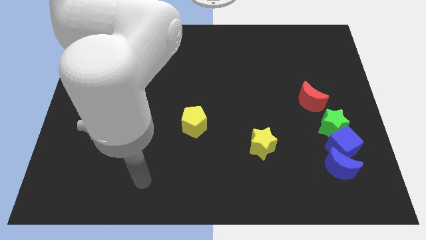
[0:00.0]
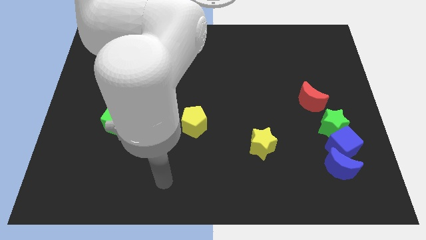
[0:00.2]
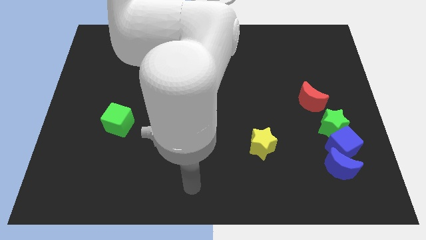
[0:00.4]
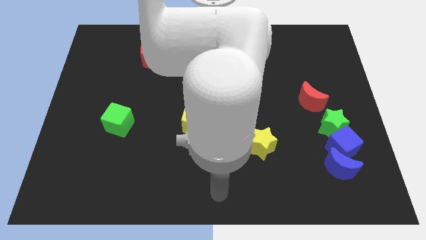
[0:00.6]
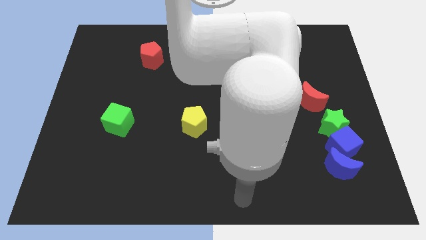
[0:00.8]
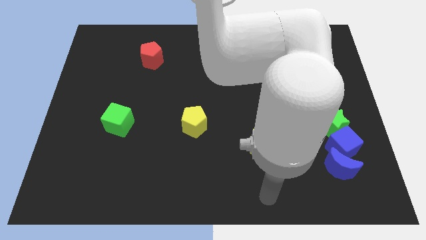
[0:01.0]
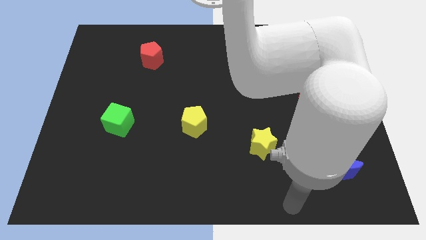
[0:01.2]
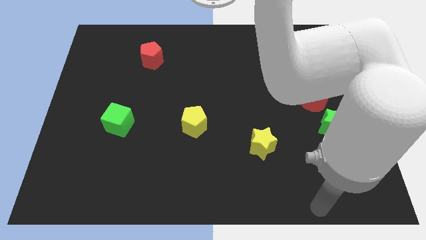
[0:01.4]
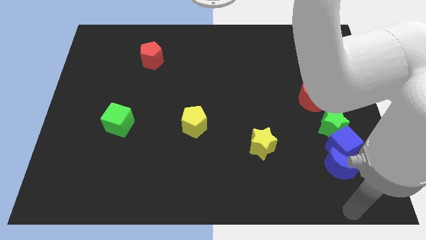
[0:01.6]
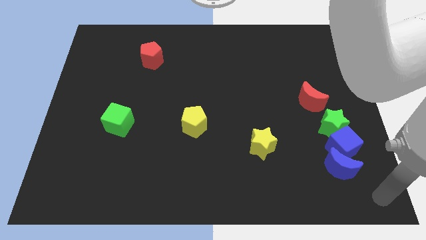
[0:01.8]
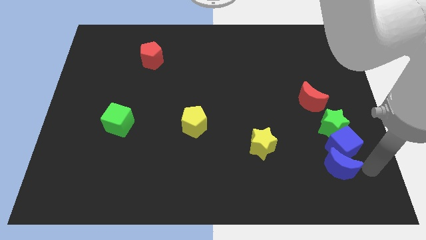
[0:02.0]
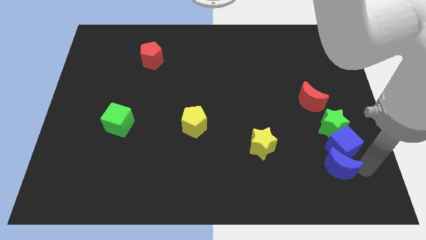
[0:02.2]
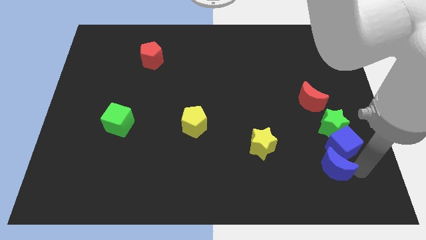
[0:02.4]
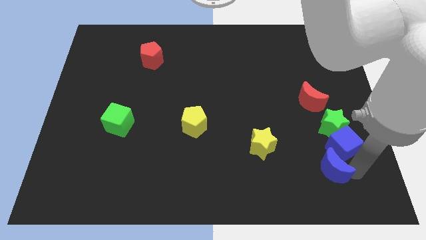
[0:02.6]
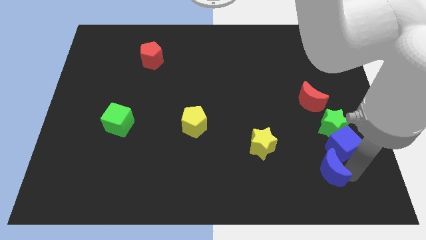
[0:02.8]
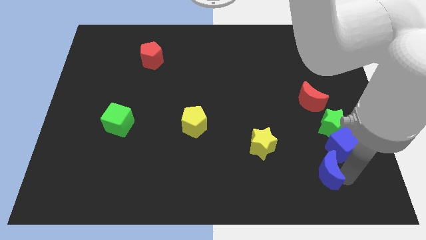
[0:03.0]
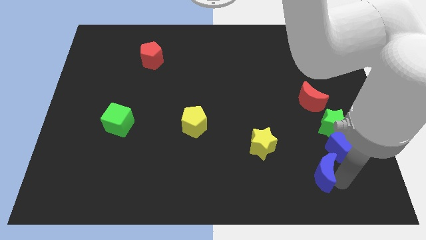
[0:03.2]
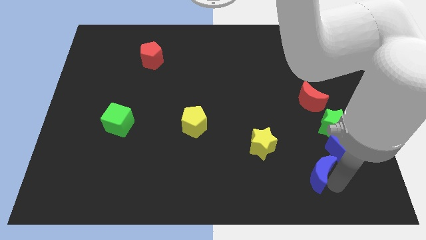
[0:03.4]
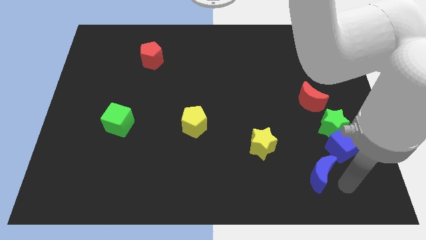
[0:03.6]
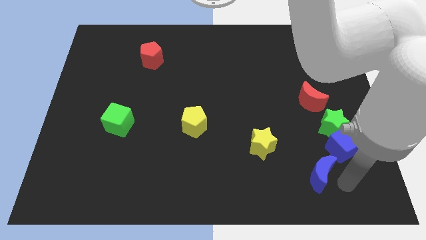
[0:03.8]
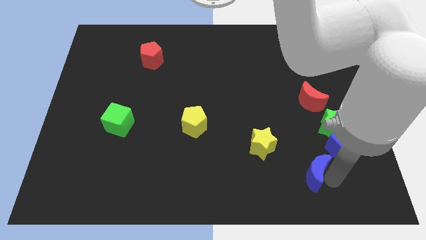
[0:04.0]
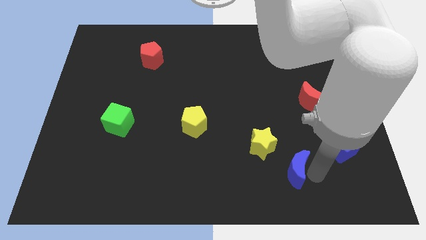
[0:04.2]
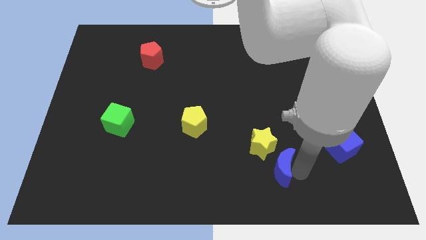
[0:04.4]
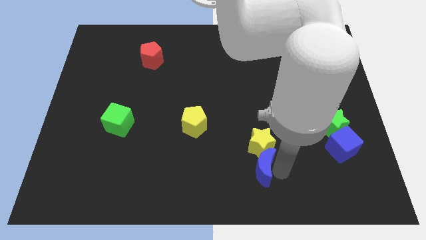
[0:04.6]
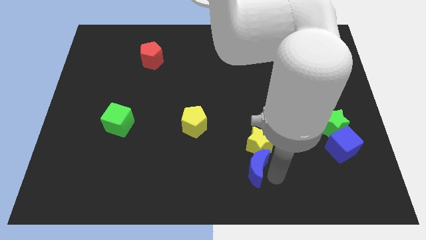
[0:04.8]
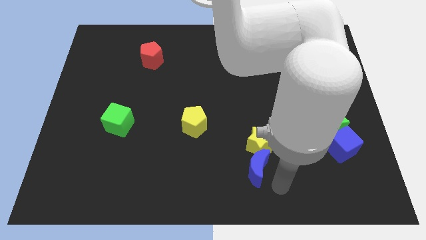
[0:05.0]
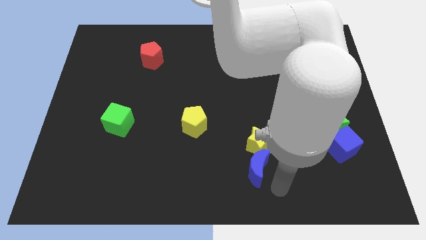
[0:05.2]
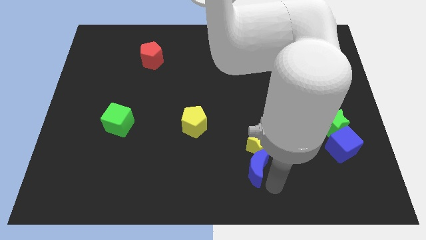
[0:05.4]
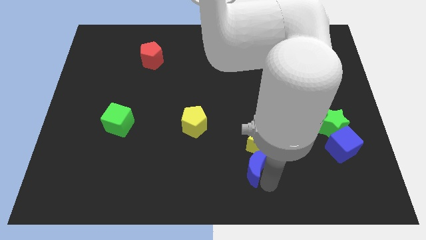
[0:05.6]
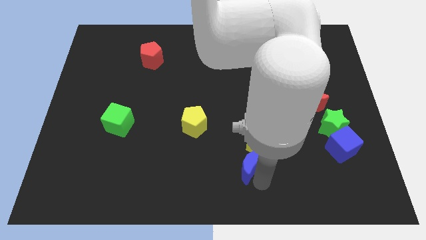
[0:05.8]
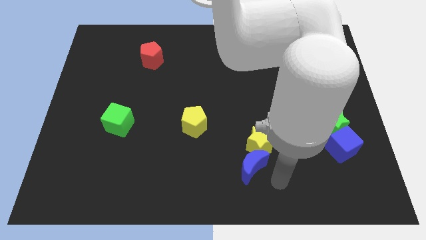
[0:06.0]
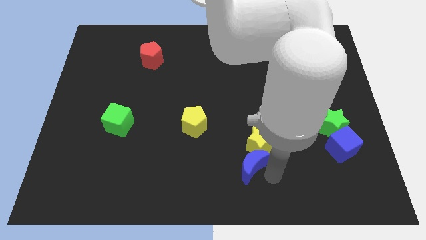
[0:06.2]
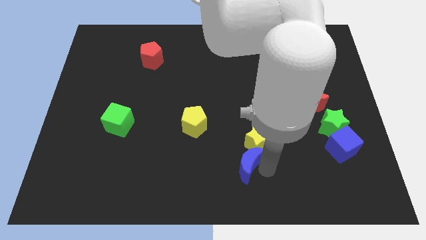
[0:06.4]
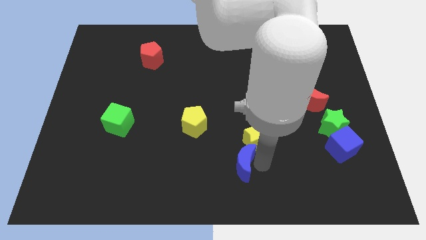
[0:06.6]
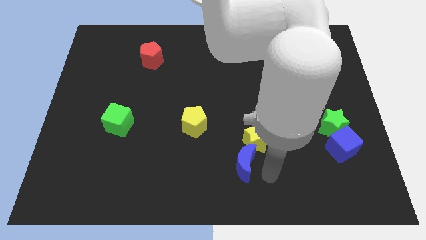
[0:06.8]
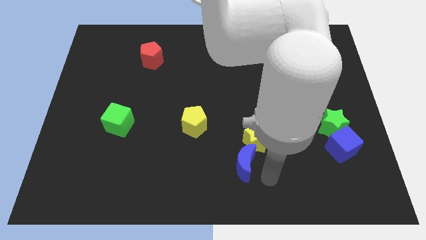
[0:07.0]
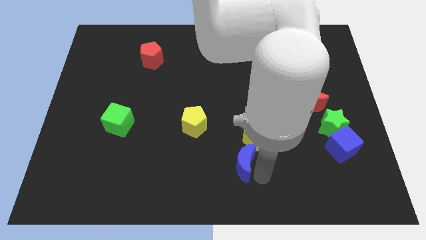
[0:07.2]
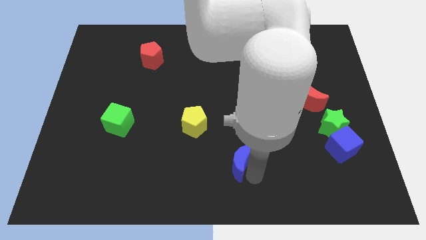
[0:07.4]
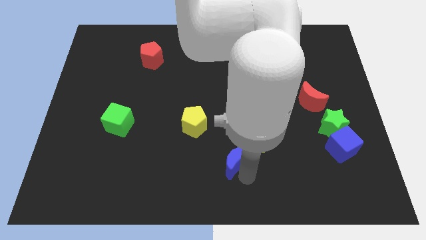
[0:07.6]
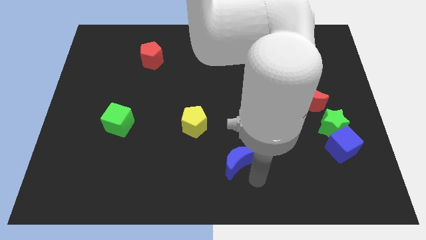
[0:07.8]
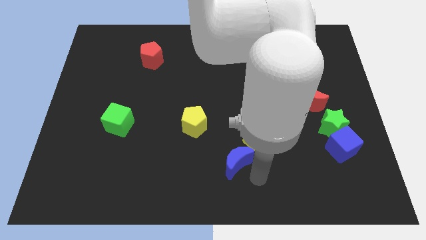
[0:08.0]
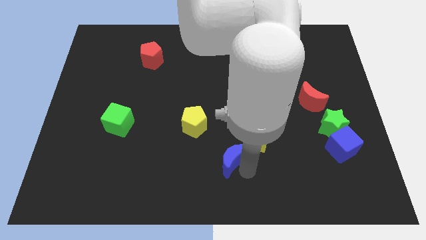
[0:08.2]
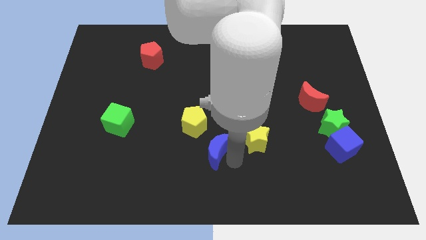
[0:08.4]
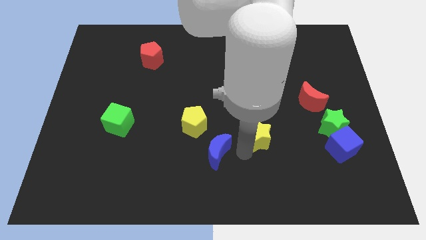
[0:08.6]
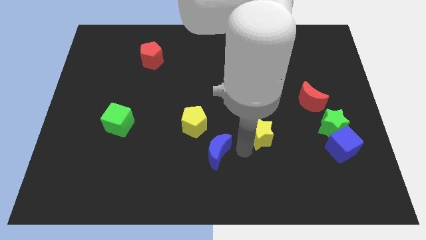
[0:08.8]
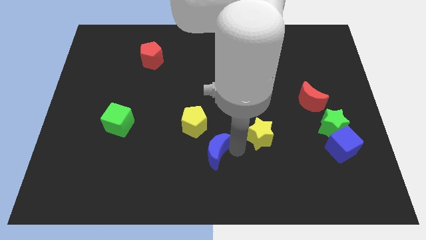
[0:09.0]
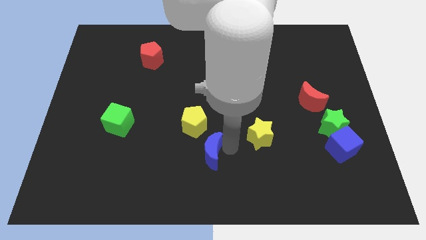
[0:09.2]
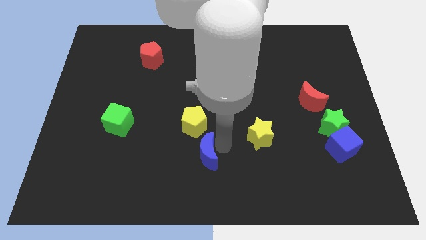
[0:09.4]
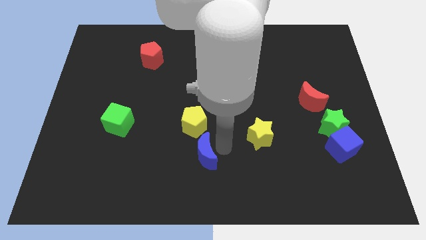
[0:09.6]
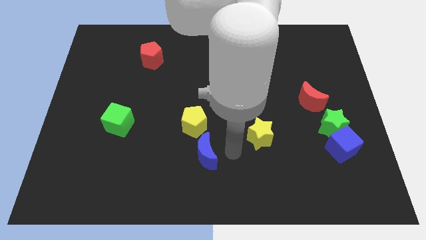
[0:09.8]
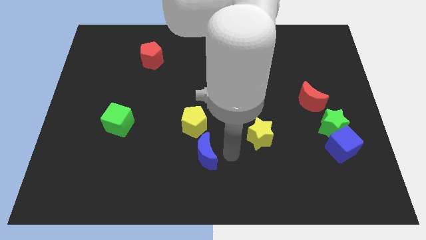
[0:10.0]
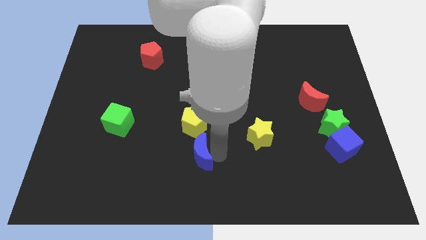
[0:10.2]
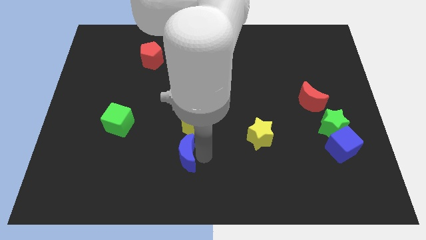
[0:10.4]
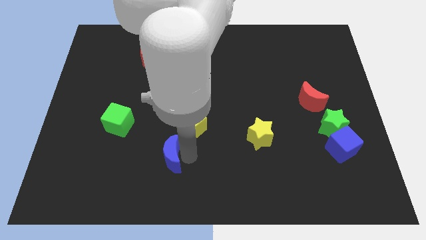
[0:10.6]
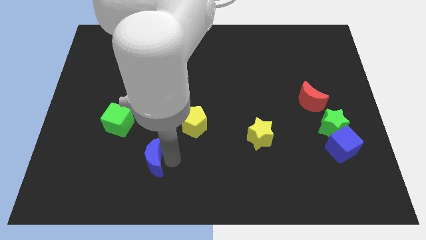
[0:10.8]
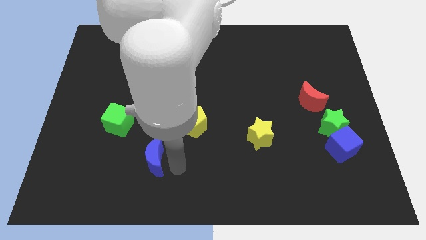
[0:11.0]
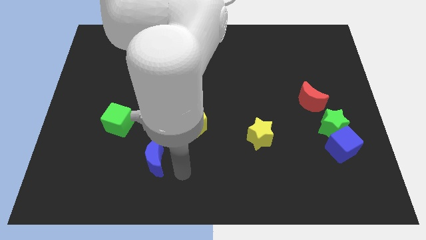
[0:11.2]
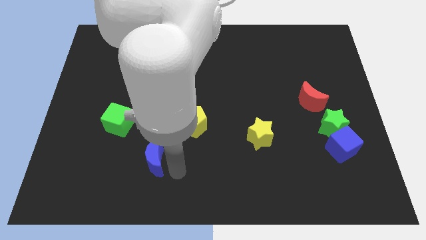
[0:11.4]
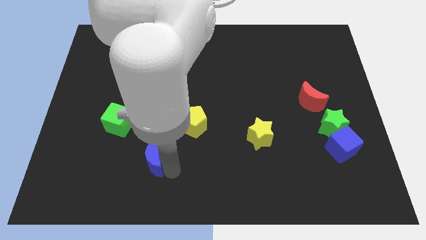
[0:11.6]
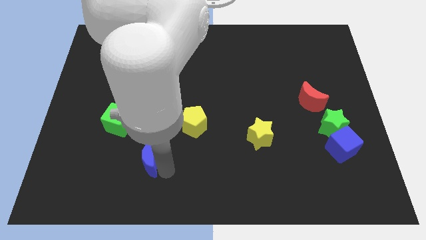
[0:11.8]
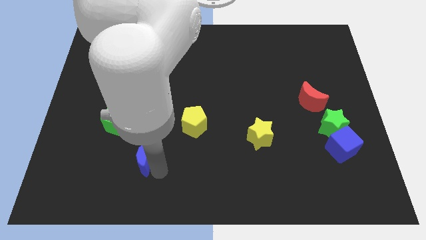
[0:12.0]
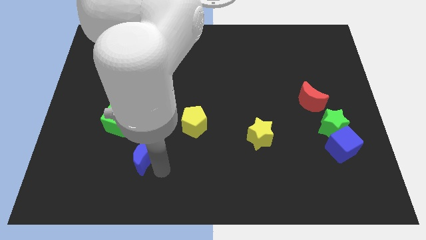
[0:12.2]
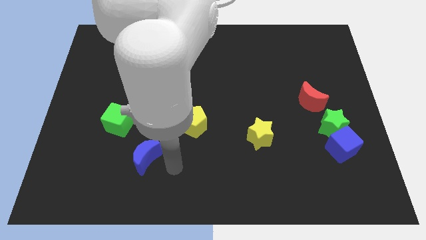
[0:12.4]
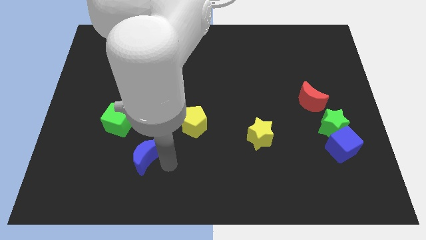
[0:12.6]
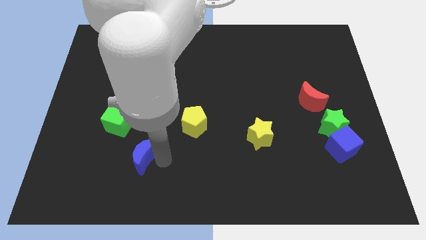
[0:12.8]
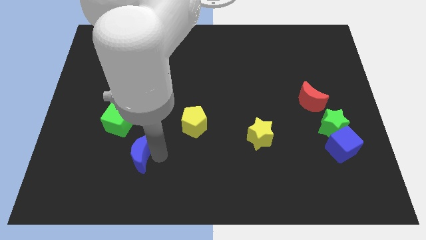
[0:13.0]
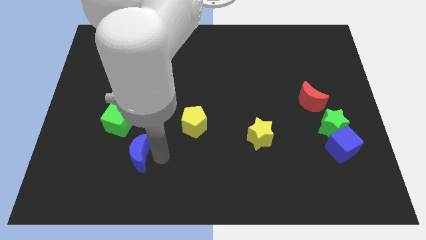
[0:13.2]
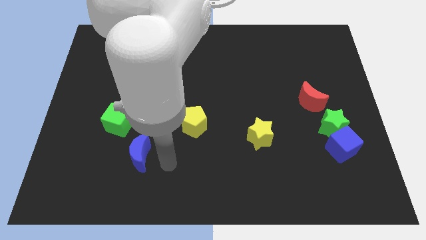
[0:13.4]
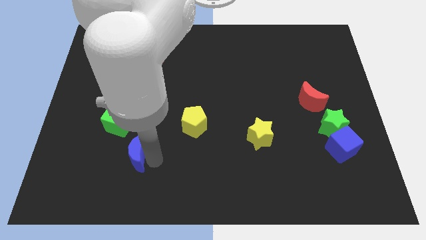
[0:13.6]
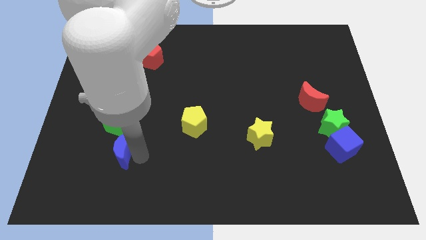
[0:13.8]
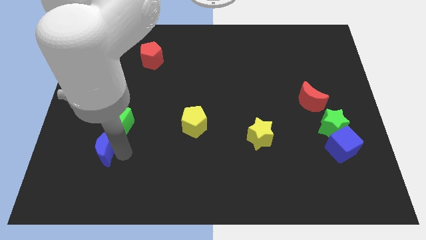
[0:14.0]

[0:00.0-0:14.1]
push the blue moon diagonally down and to the left of the green cube

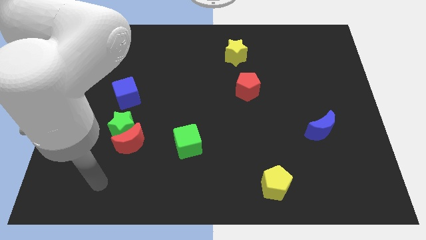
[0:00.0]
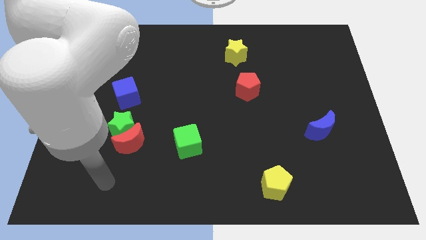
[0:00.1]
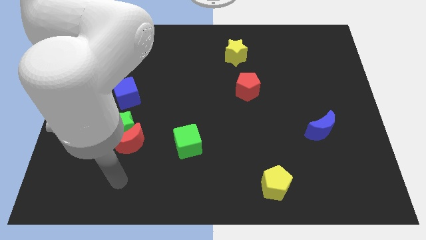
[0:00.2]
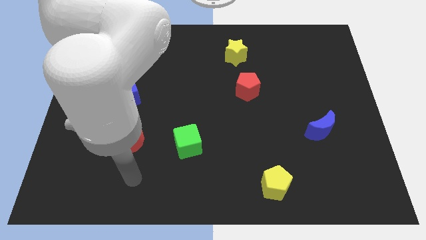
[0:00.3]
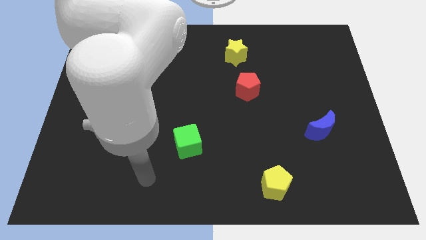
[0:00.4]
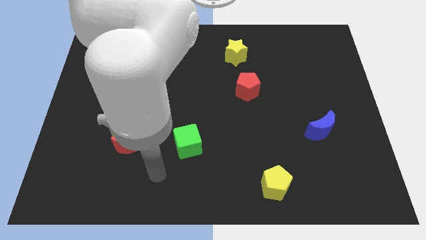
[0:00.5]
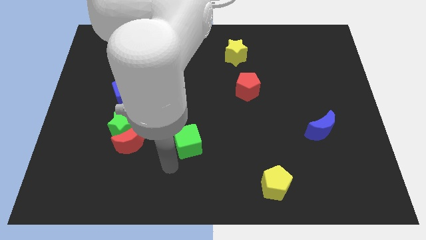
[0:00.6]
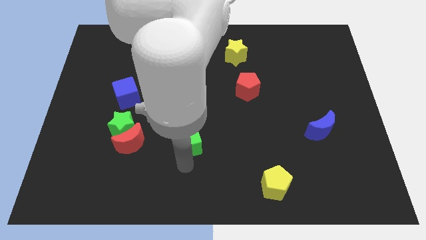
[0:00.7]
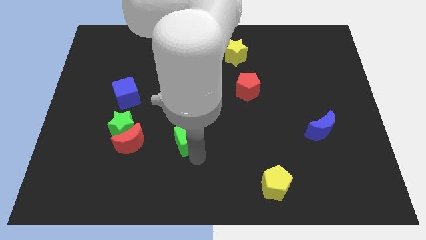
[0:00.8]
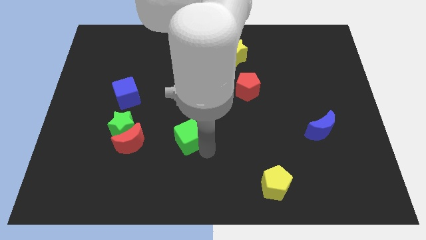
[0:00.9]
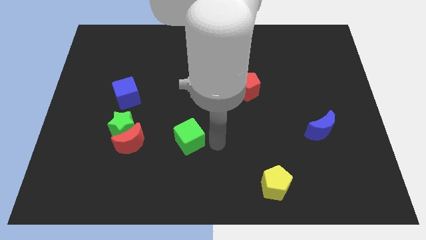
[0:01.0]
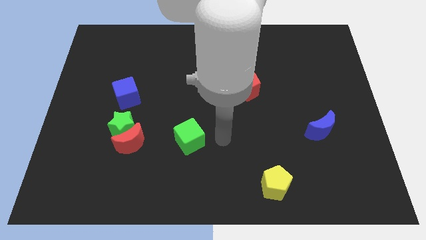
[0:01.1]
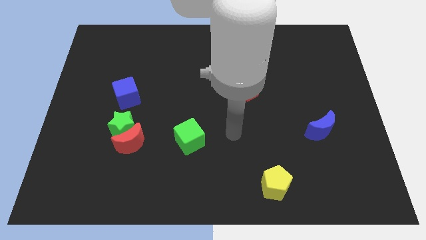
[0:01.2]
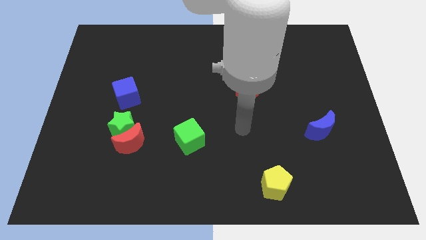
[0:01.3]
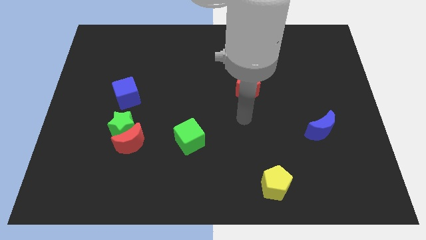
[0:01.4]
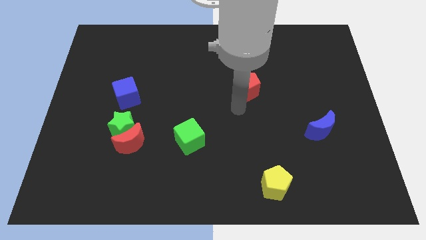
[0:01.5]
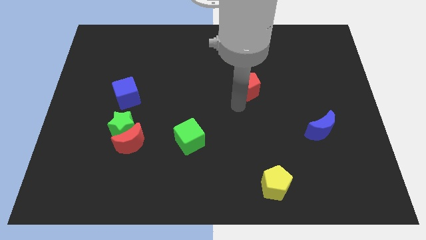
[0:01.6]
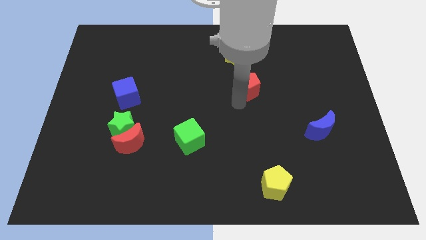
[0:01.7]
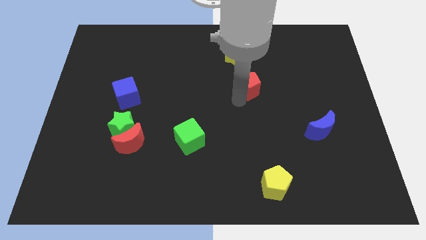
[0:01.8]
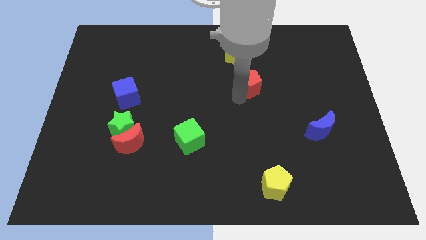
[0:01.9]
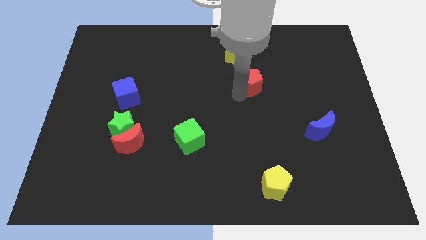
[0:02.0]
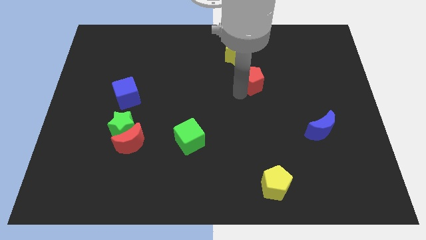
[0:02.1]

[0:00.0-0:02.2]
move the red pentagon to the bottom right side of the yellow star
